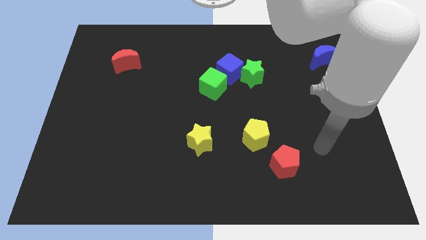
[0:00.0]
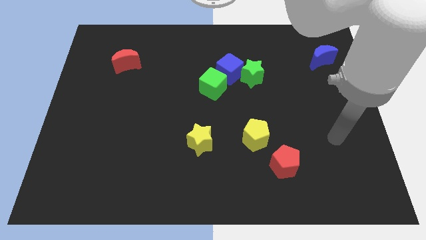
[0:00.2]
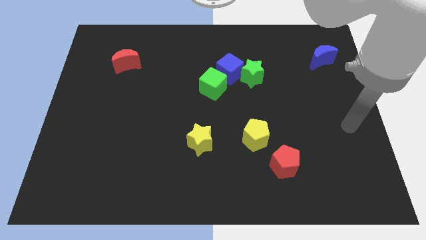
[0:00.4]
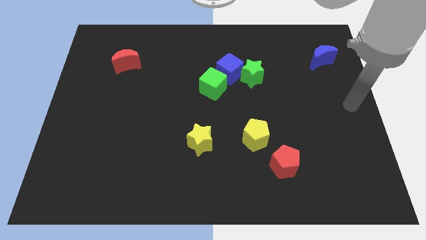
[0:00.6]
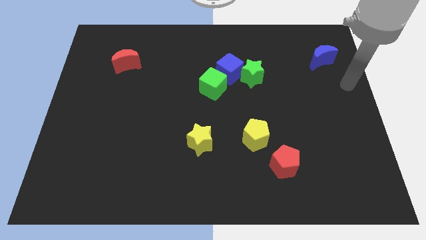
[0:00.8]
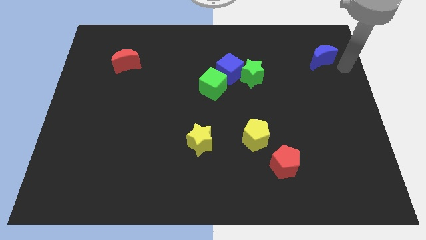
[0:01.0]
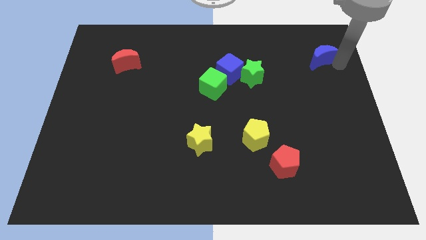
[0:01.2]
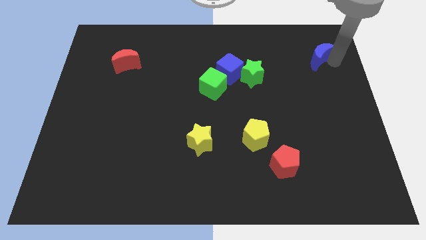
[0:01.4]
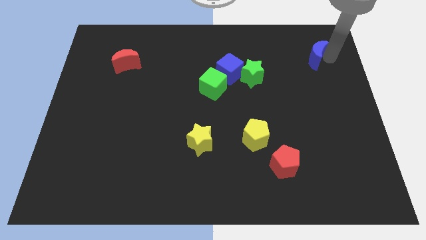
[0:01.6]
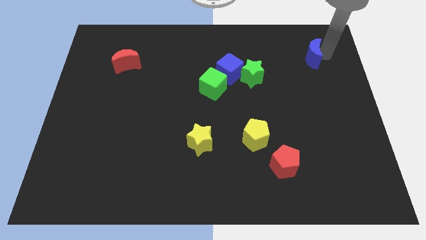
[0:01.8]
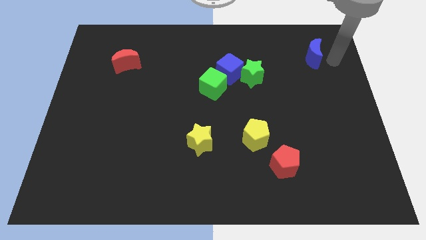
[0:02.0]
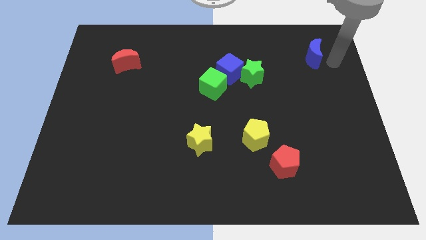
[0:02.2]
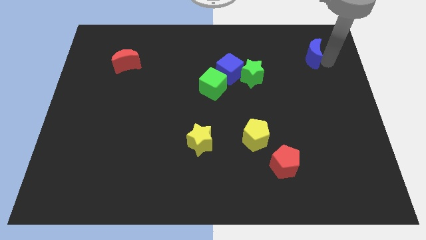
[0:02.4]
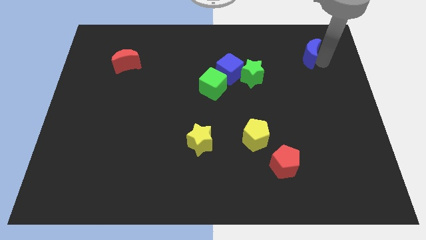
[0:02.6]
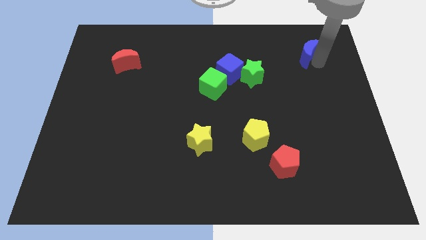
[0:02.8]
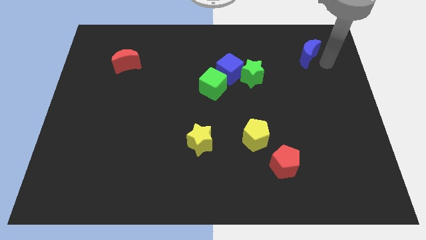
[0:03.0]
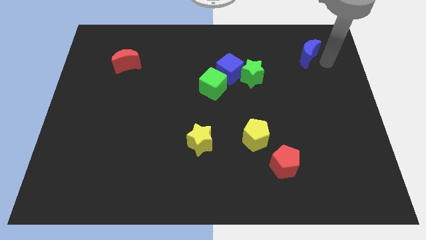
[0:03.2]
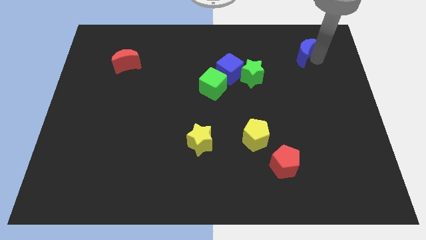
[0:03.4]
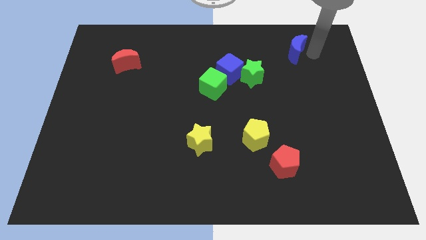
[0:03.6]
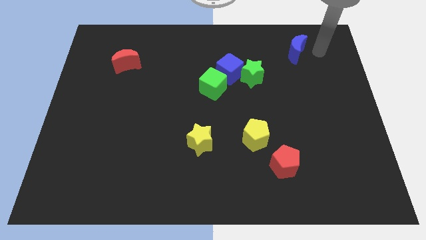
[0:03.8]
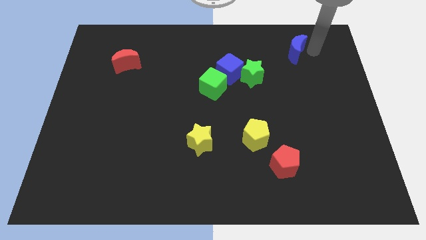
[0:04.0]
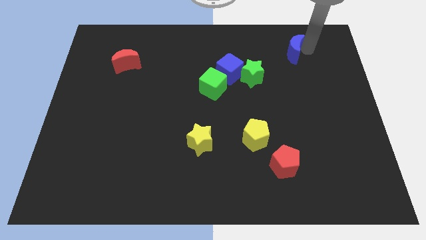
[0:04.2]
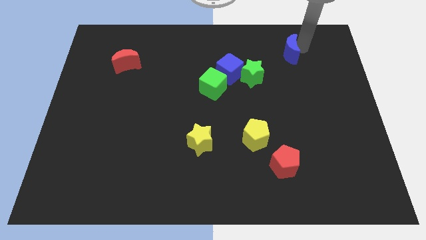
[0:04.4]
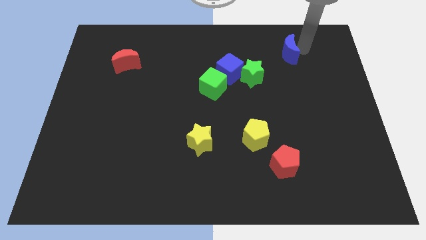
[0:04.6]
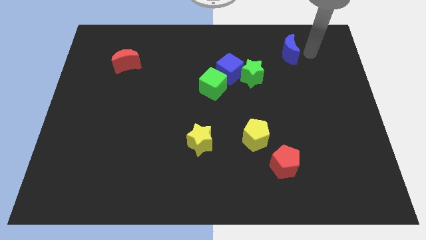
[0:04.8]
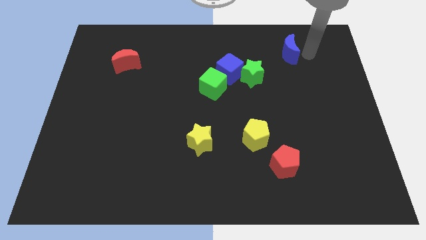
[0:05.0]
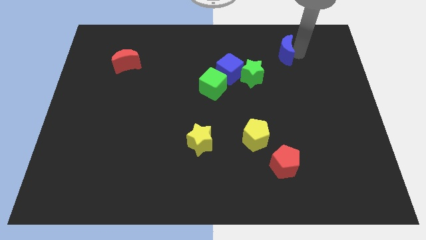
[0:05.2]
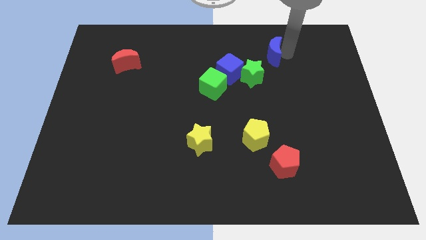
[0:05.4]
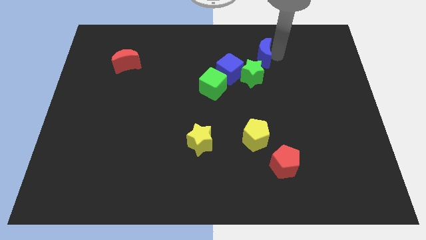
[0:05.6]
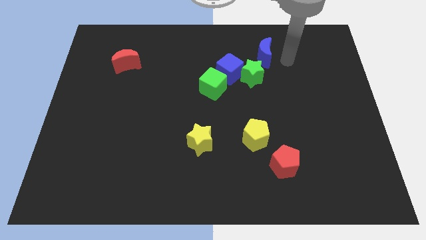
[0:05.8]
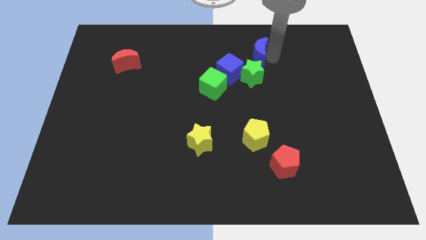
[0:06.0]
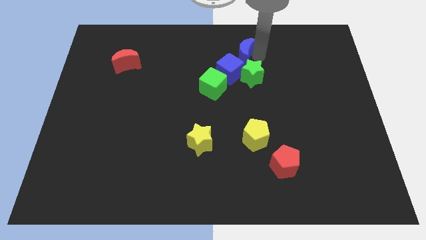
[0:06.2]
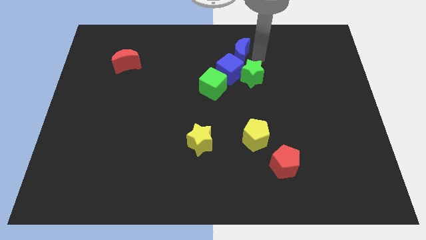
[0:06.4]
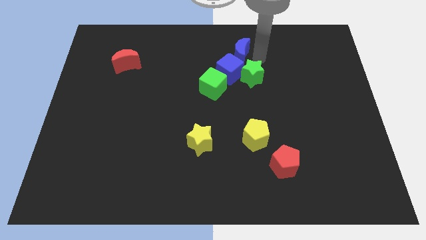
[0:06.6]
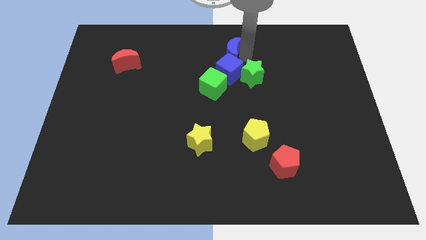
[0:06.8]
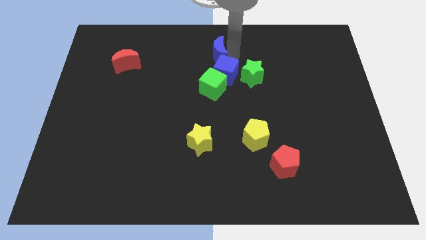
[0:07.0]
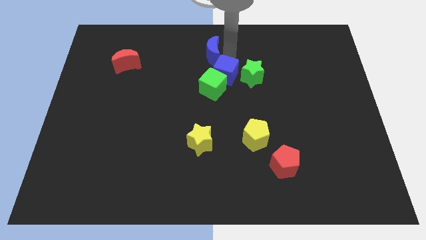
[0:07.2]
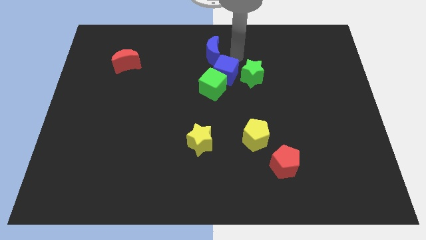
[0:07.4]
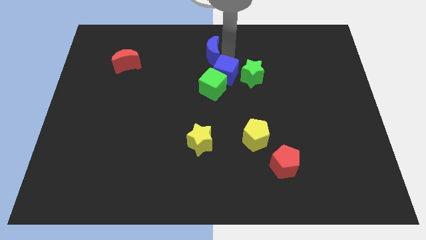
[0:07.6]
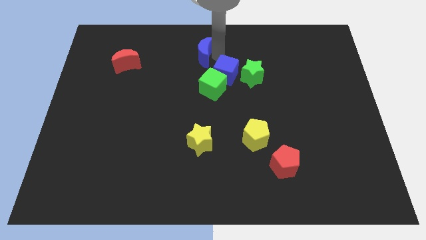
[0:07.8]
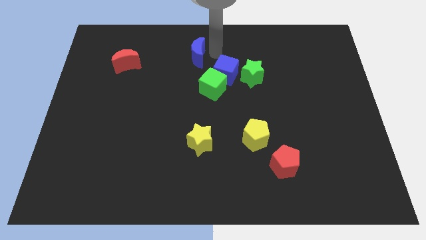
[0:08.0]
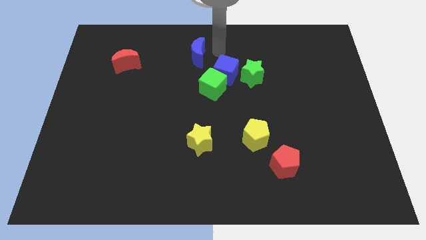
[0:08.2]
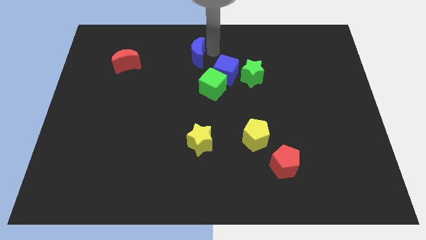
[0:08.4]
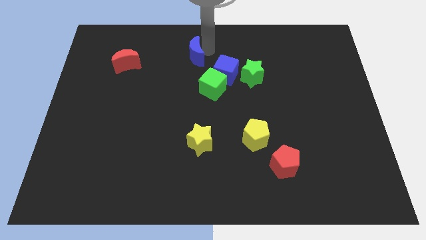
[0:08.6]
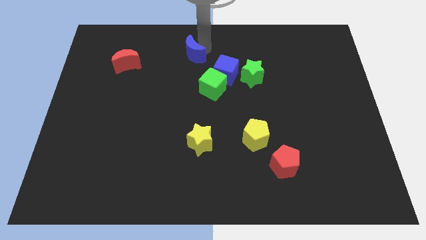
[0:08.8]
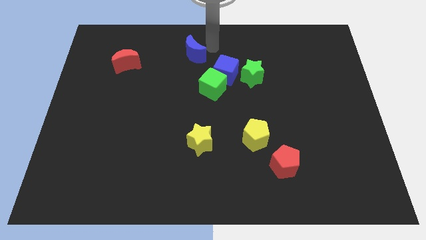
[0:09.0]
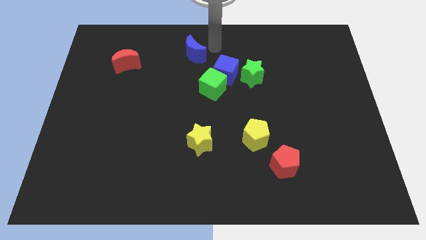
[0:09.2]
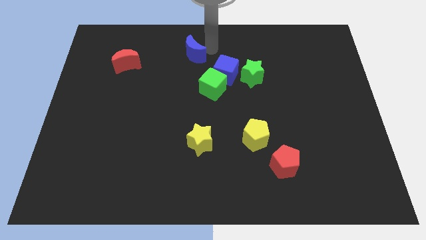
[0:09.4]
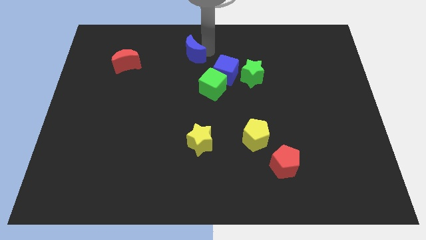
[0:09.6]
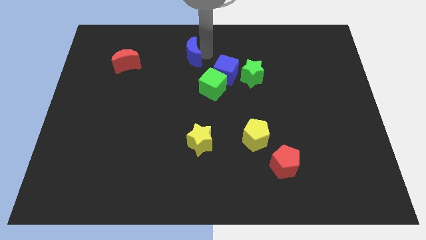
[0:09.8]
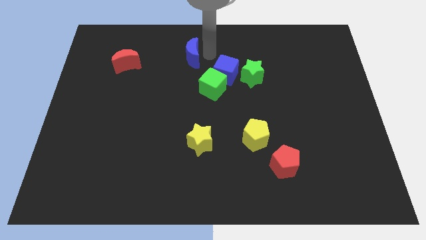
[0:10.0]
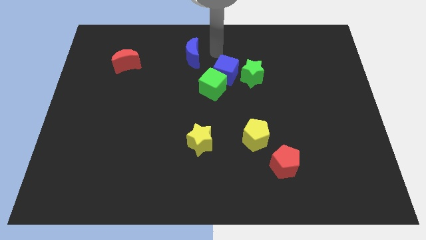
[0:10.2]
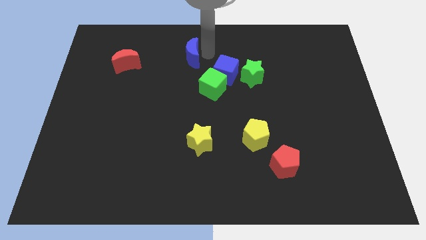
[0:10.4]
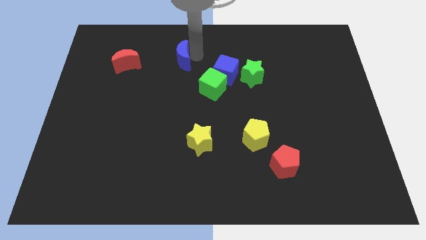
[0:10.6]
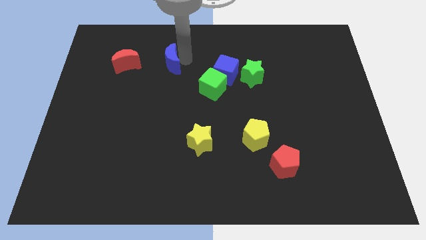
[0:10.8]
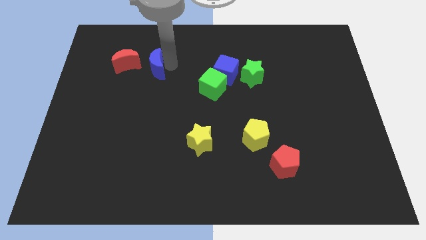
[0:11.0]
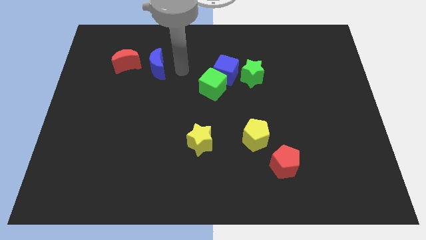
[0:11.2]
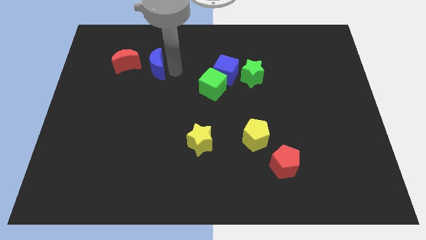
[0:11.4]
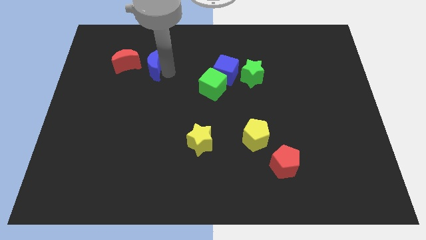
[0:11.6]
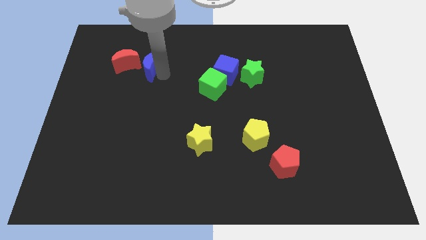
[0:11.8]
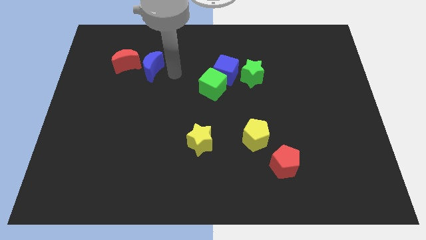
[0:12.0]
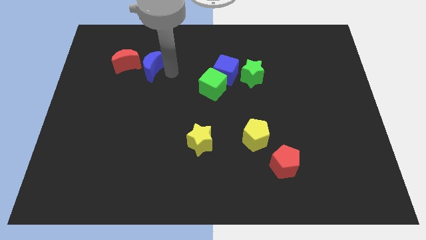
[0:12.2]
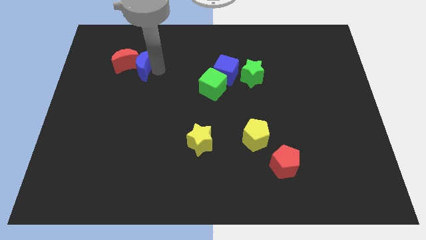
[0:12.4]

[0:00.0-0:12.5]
put the blue moon towards the red moon
